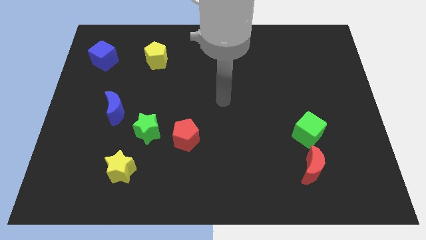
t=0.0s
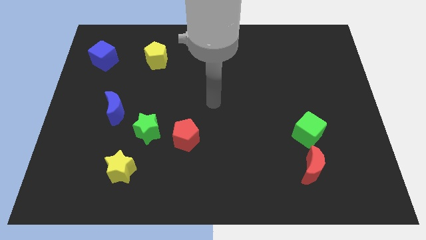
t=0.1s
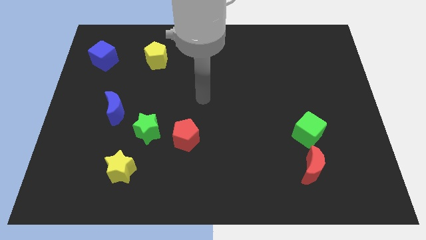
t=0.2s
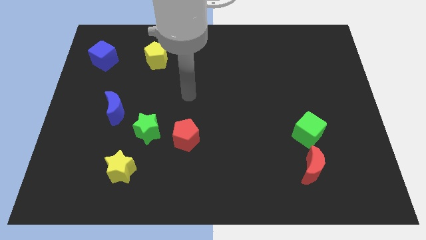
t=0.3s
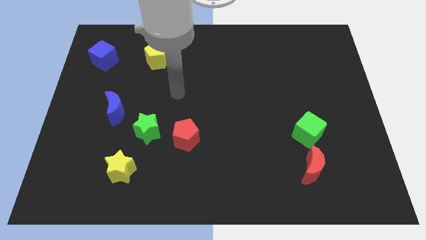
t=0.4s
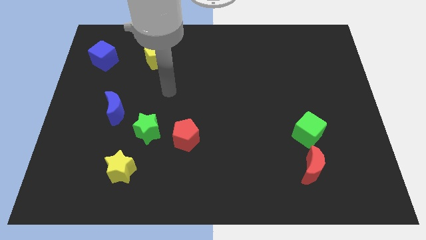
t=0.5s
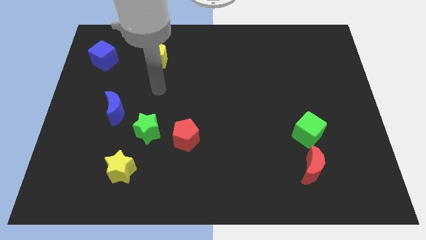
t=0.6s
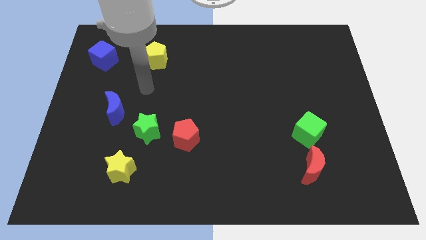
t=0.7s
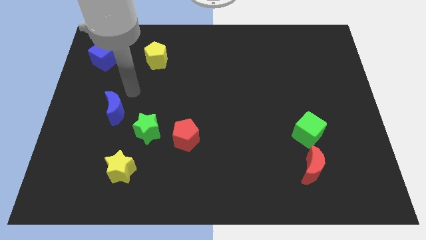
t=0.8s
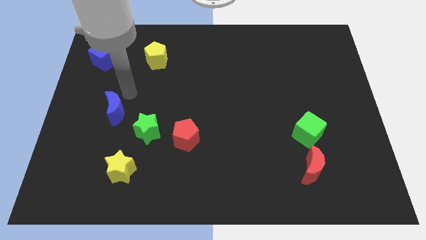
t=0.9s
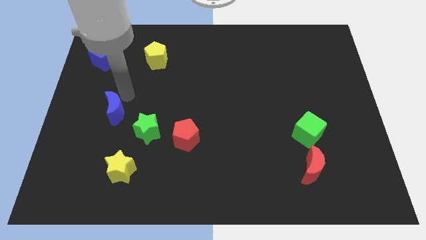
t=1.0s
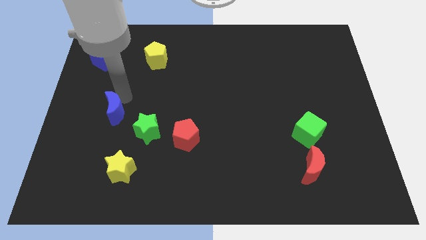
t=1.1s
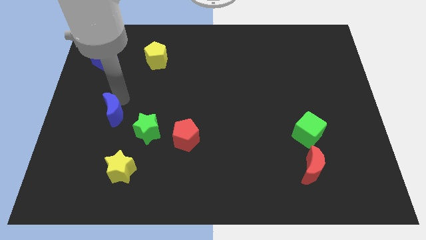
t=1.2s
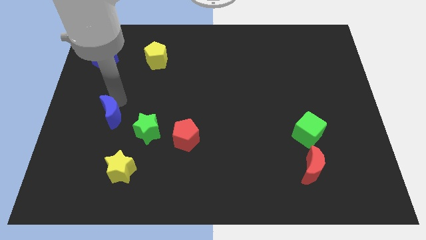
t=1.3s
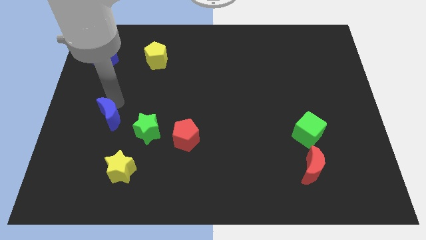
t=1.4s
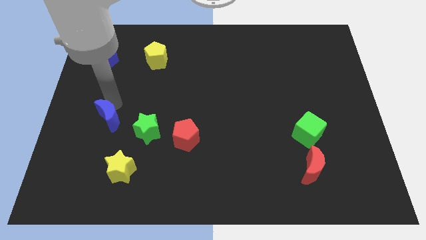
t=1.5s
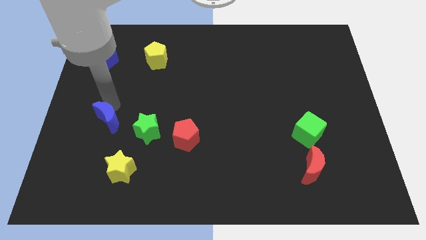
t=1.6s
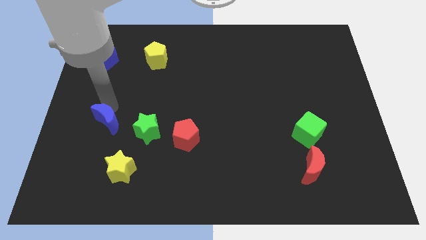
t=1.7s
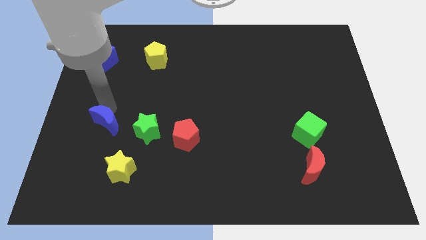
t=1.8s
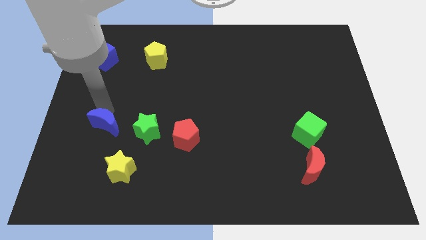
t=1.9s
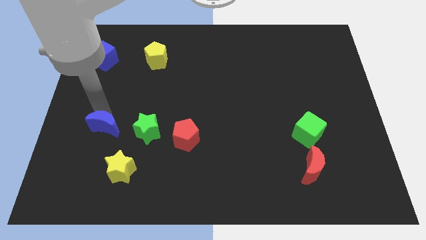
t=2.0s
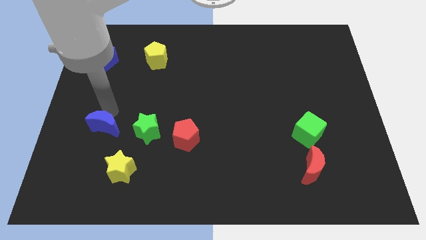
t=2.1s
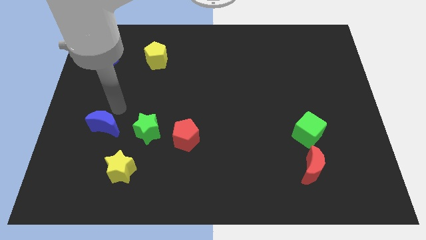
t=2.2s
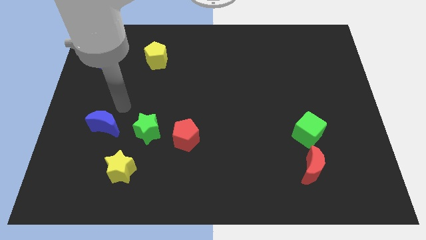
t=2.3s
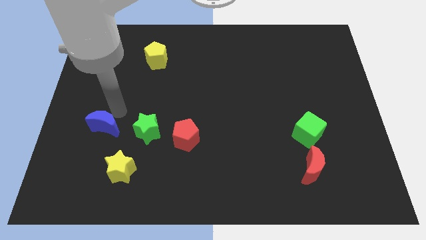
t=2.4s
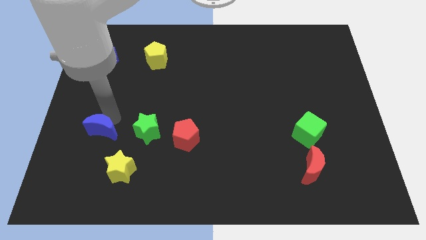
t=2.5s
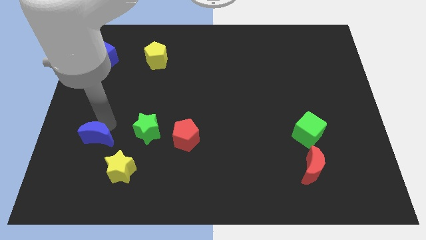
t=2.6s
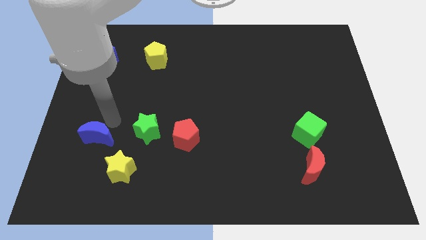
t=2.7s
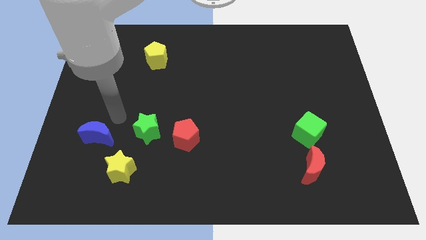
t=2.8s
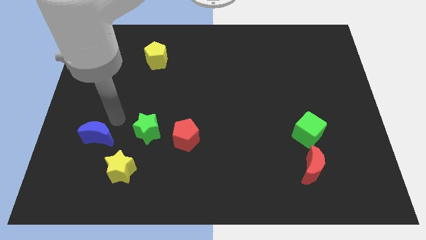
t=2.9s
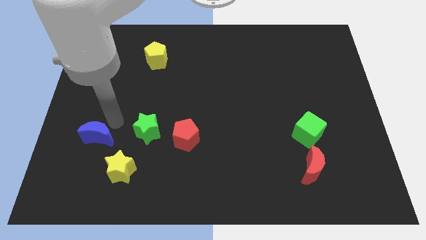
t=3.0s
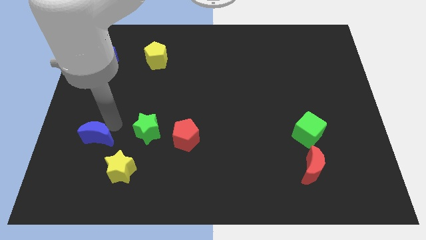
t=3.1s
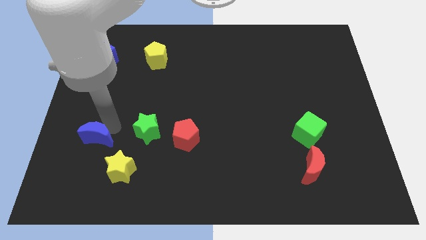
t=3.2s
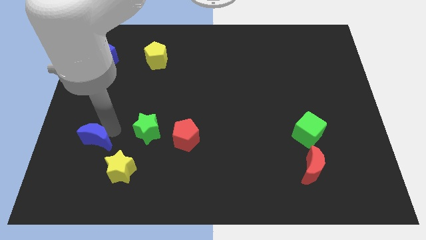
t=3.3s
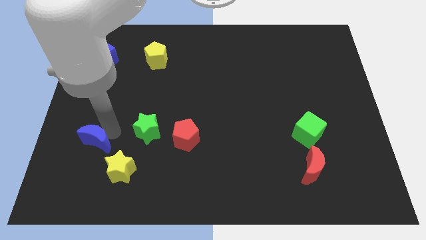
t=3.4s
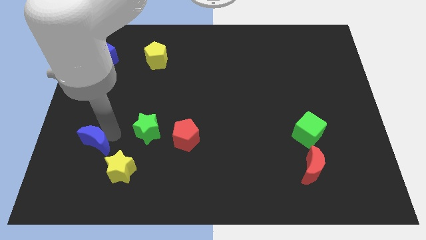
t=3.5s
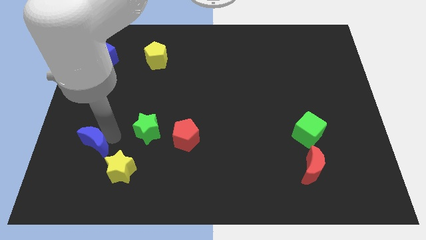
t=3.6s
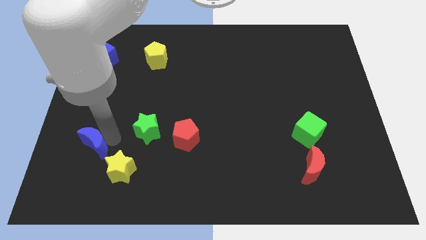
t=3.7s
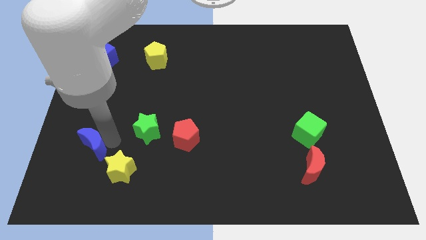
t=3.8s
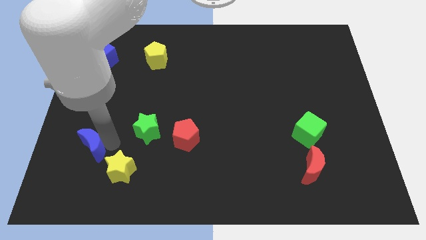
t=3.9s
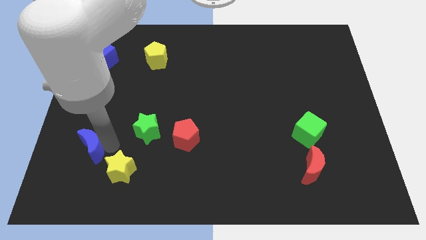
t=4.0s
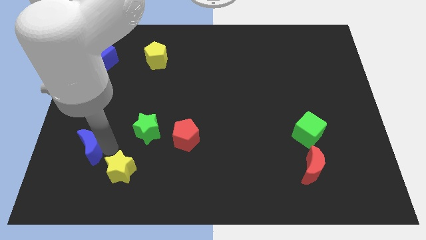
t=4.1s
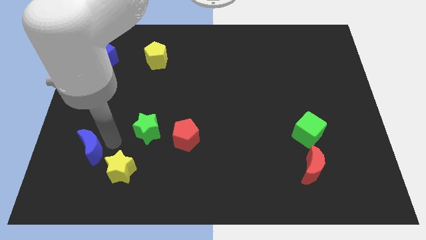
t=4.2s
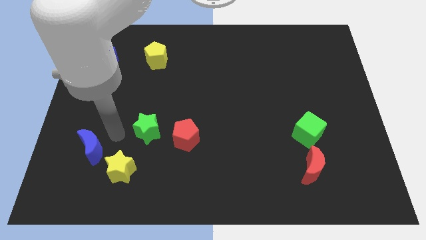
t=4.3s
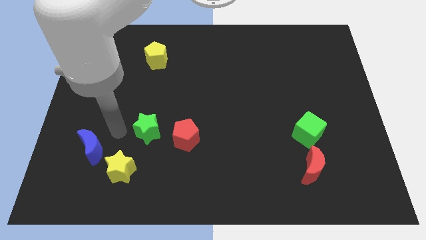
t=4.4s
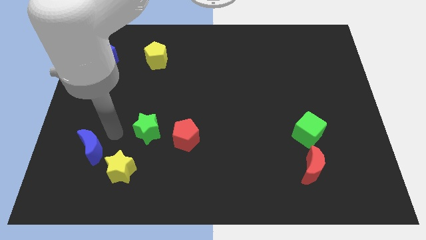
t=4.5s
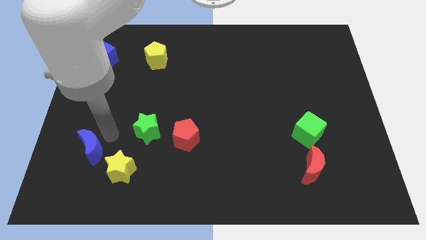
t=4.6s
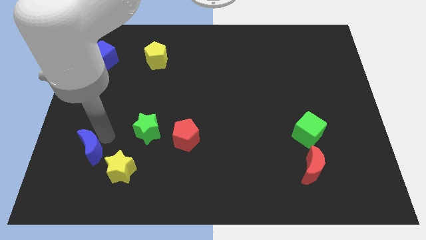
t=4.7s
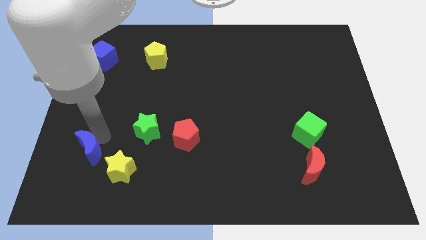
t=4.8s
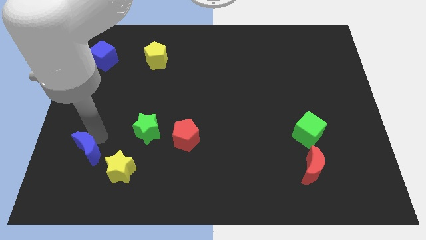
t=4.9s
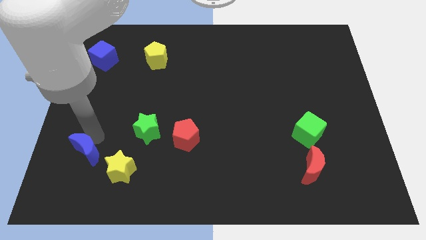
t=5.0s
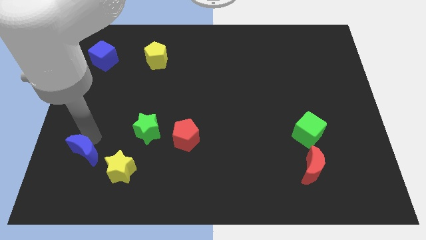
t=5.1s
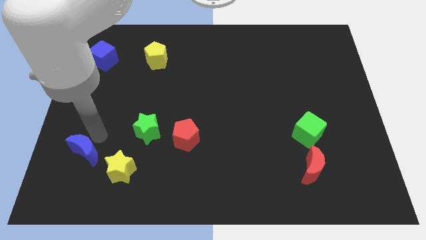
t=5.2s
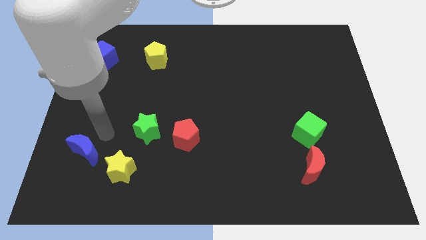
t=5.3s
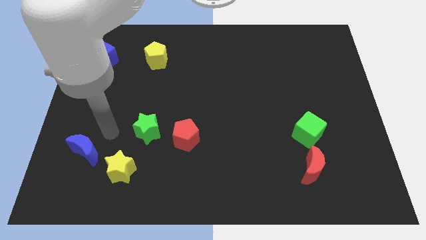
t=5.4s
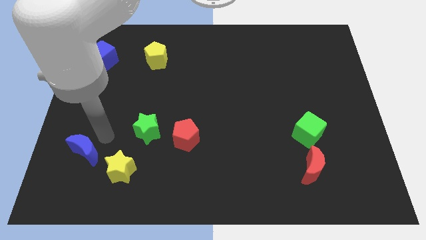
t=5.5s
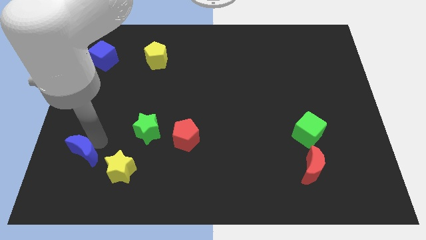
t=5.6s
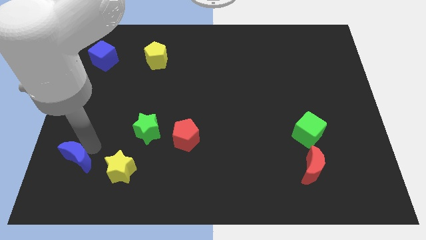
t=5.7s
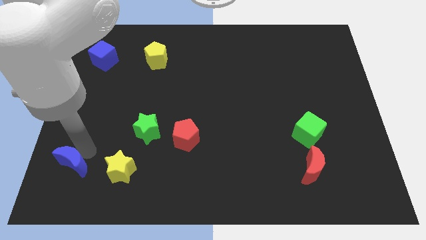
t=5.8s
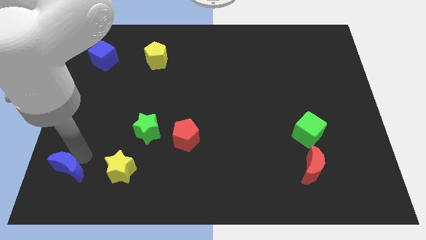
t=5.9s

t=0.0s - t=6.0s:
put the blue moon to the lower left corner
